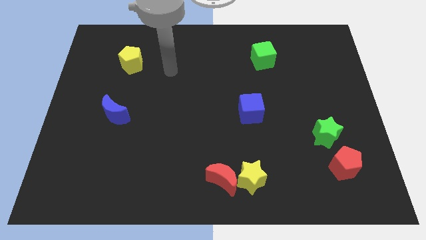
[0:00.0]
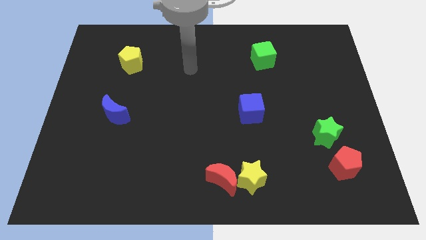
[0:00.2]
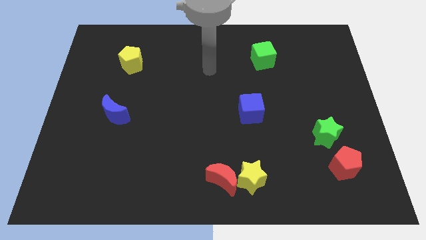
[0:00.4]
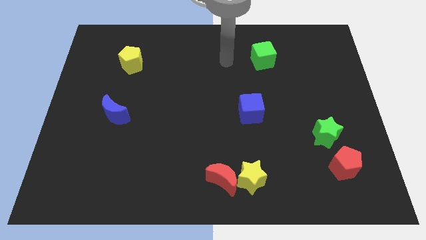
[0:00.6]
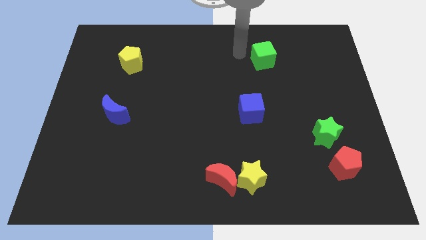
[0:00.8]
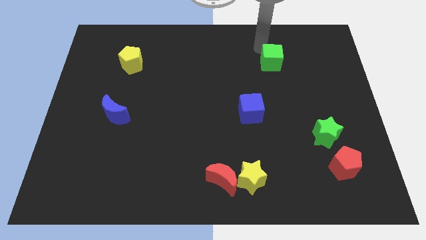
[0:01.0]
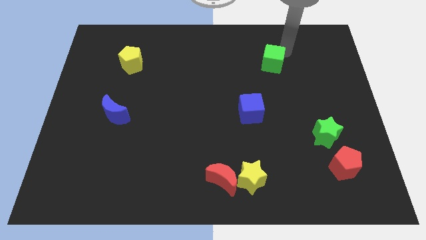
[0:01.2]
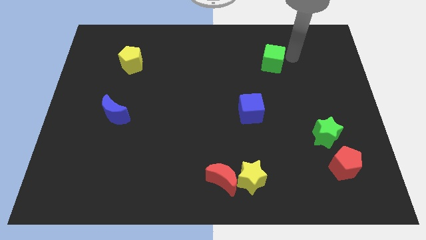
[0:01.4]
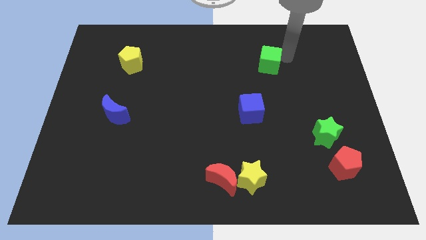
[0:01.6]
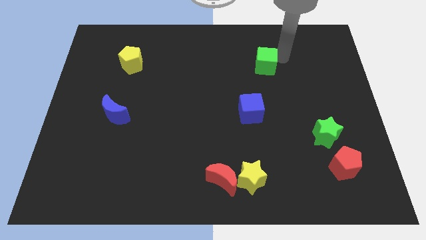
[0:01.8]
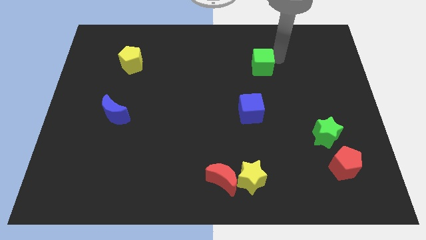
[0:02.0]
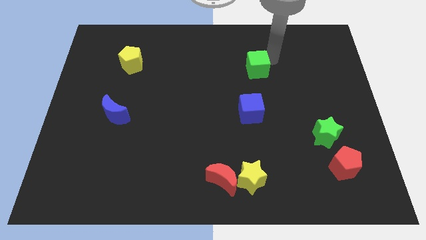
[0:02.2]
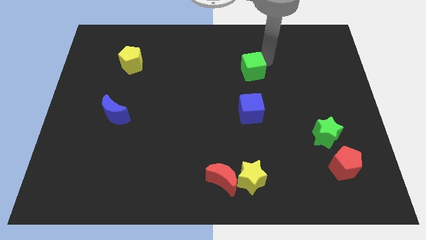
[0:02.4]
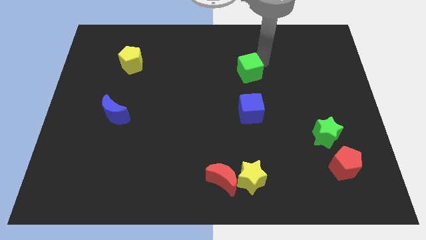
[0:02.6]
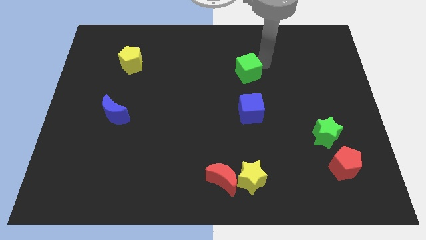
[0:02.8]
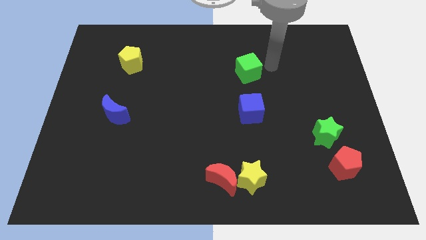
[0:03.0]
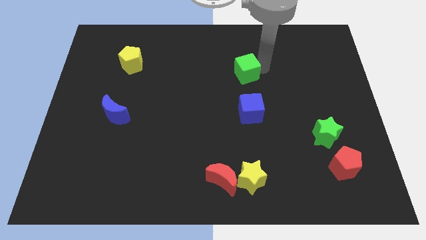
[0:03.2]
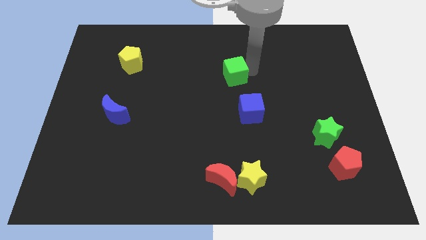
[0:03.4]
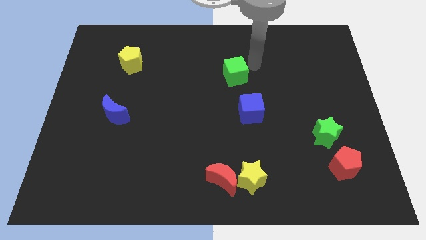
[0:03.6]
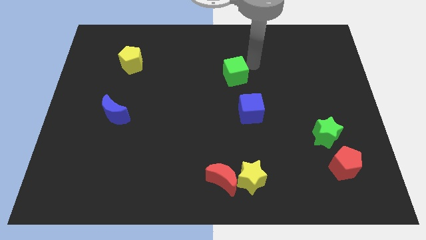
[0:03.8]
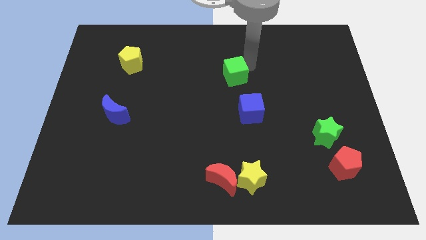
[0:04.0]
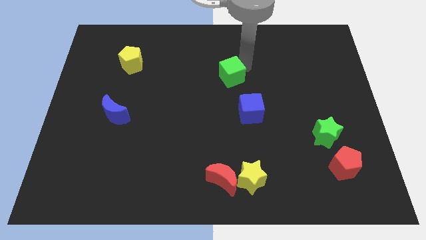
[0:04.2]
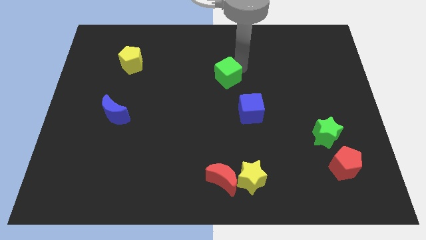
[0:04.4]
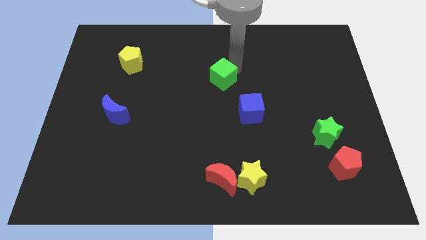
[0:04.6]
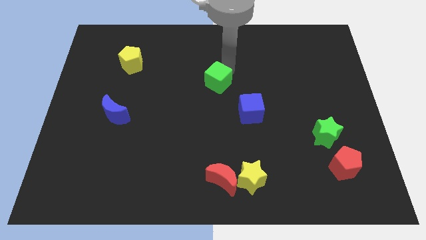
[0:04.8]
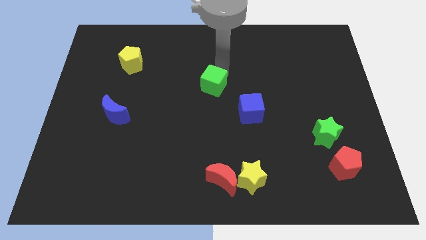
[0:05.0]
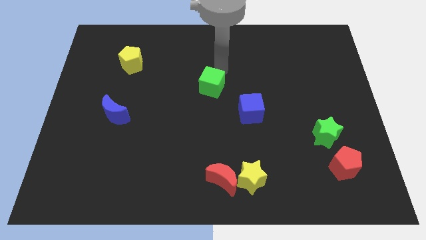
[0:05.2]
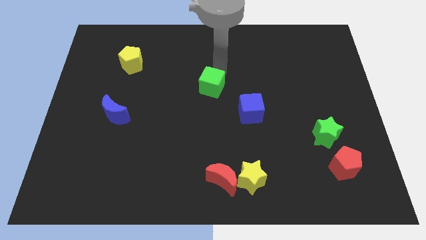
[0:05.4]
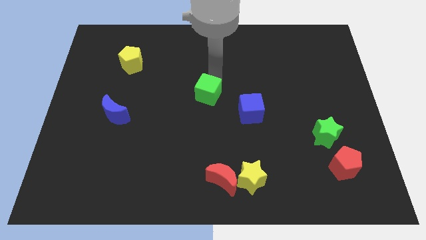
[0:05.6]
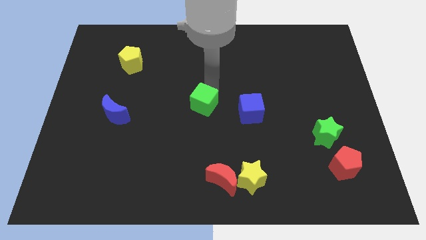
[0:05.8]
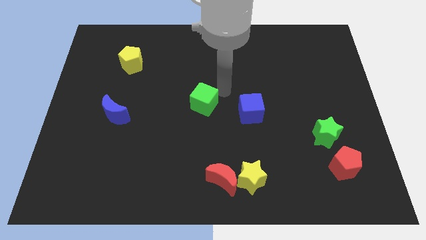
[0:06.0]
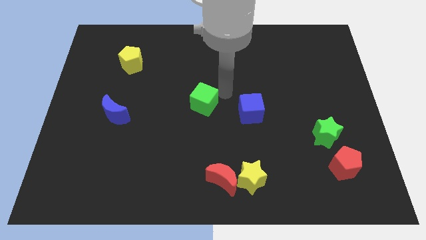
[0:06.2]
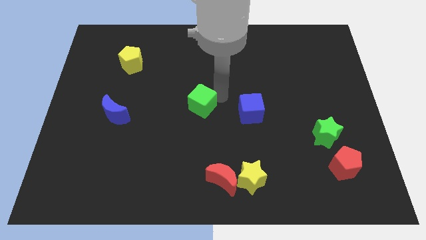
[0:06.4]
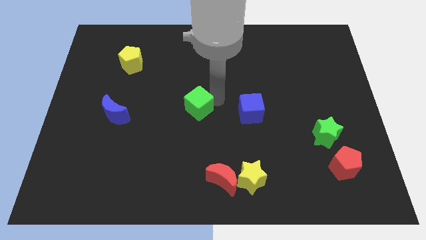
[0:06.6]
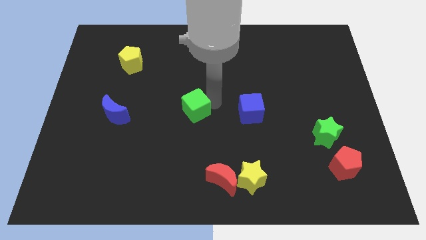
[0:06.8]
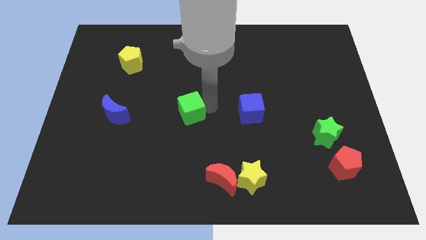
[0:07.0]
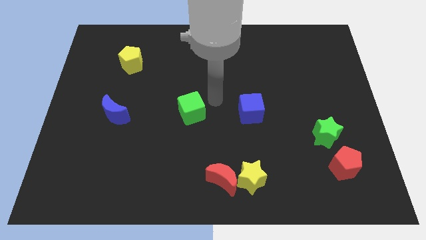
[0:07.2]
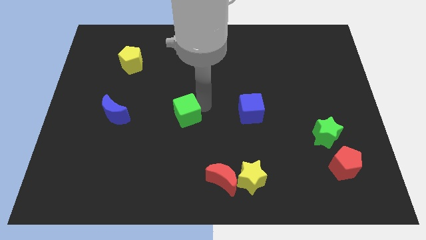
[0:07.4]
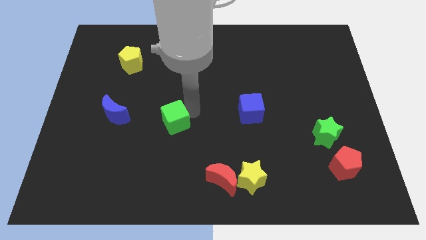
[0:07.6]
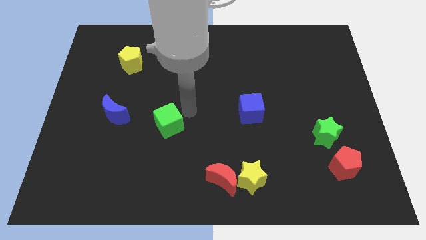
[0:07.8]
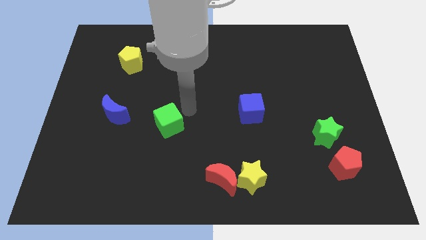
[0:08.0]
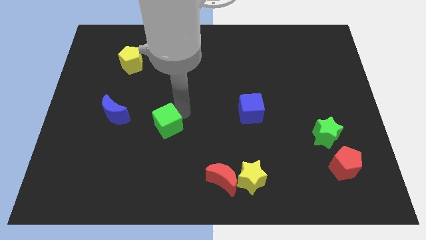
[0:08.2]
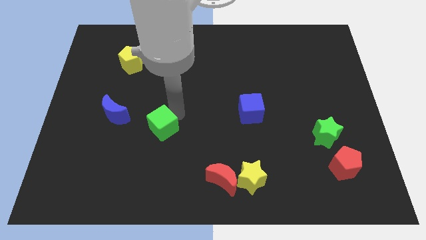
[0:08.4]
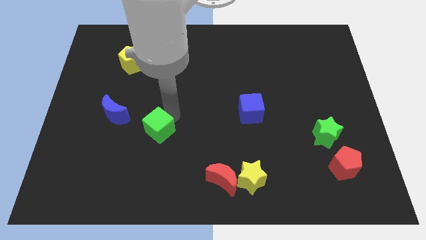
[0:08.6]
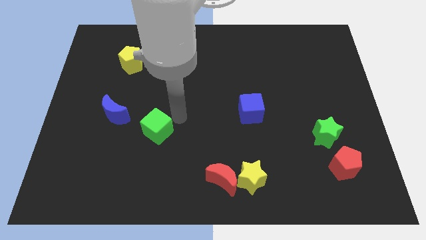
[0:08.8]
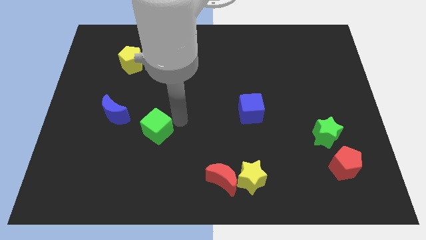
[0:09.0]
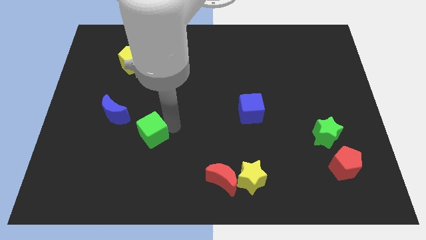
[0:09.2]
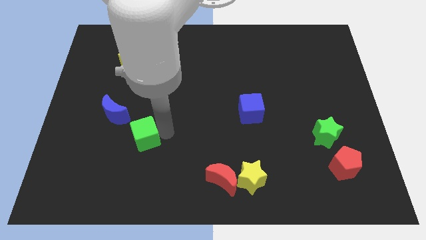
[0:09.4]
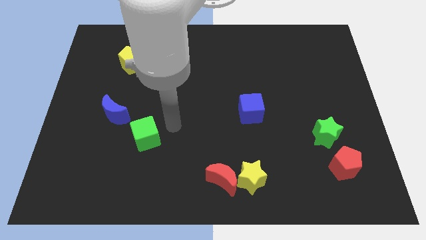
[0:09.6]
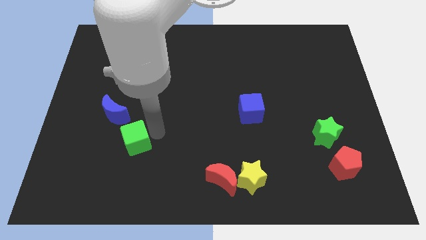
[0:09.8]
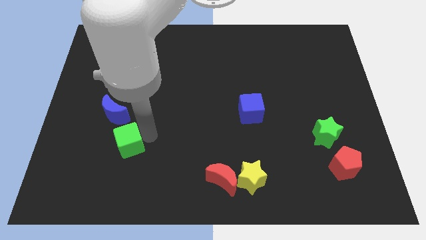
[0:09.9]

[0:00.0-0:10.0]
slide the green cube to the bottom of the blue moon

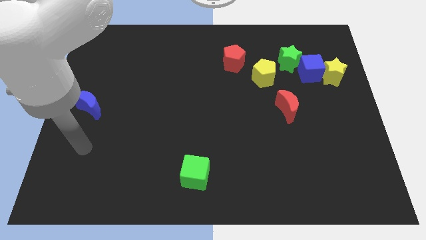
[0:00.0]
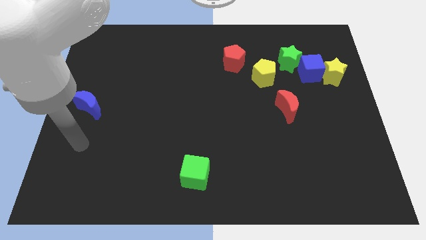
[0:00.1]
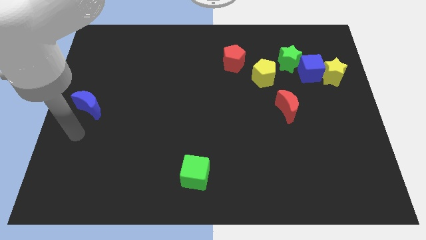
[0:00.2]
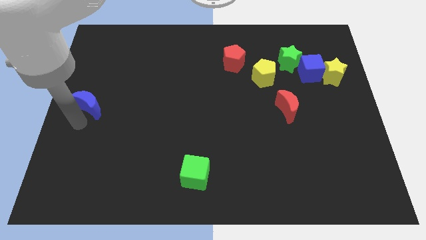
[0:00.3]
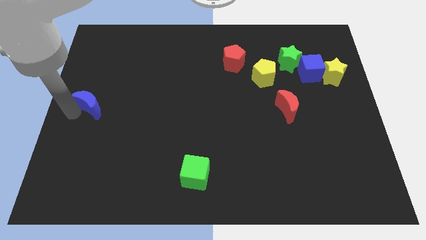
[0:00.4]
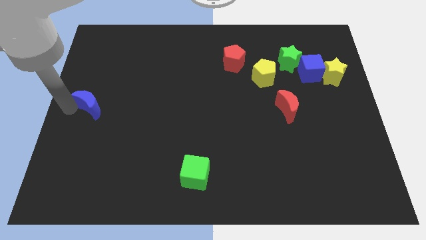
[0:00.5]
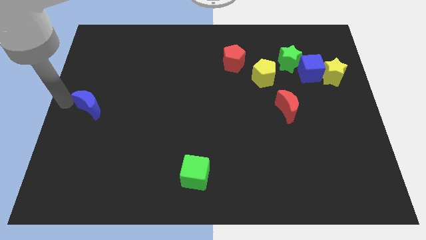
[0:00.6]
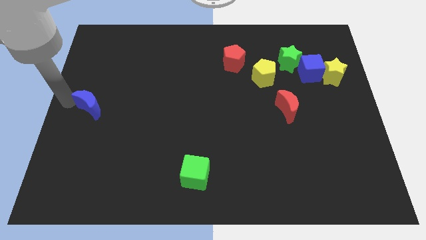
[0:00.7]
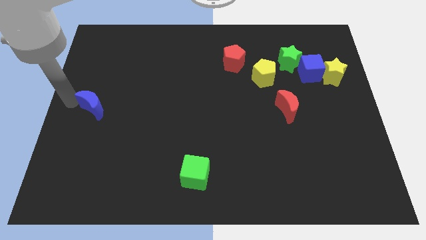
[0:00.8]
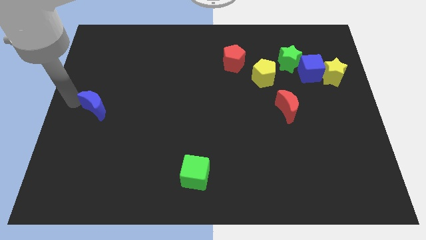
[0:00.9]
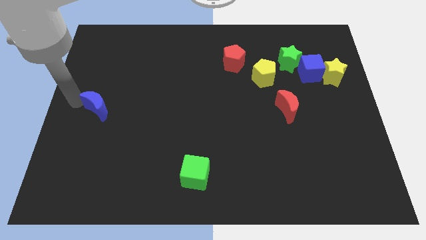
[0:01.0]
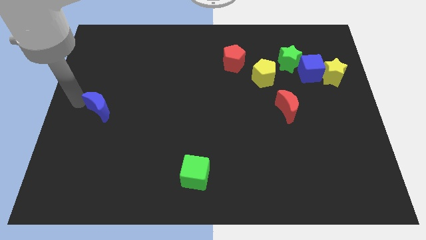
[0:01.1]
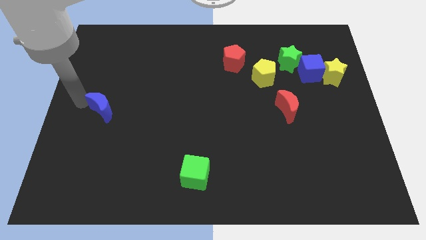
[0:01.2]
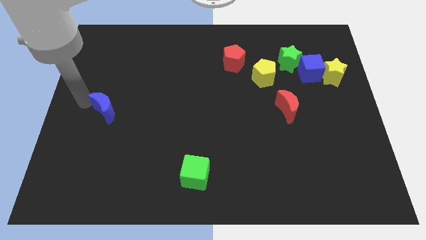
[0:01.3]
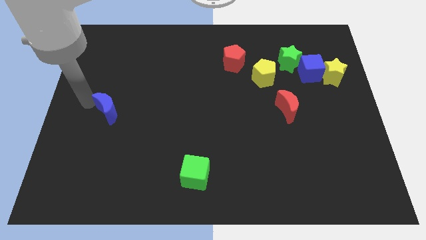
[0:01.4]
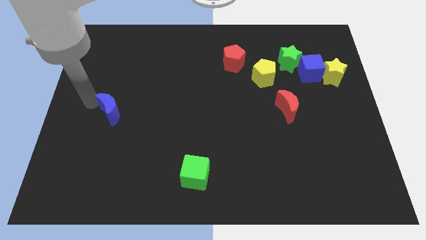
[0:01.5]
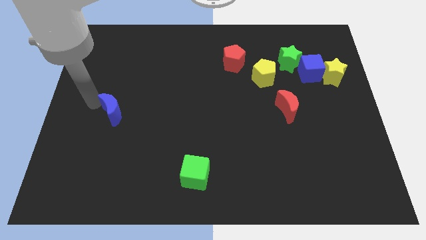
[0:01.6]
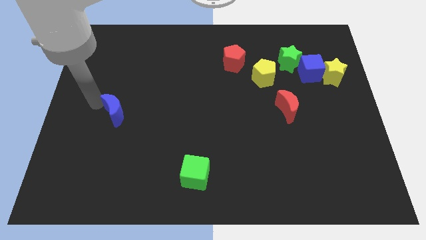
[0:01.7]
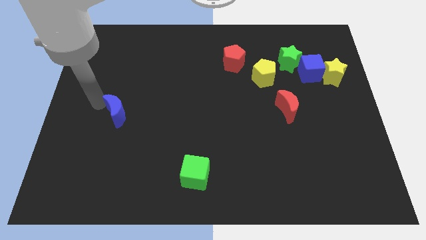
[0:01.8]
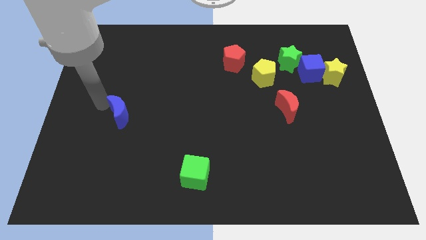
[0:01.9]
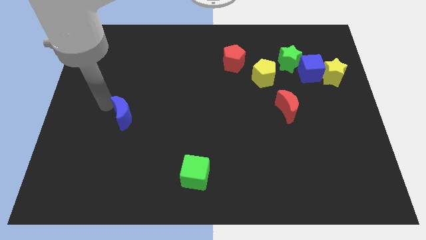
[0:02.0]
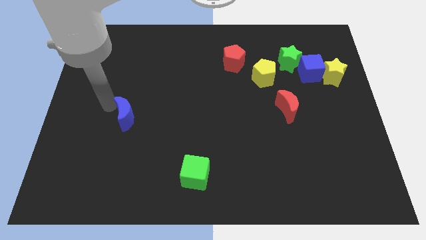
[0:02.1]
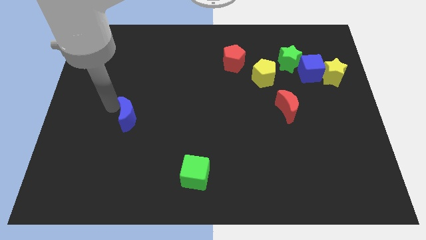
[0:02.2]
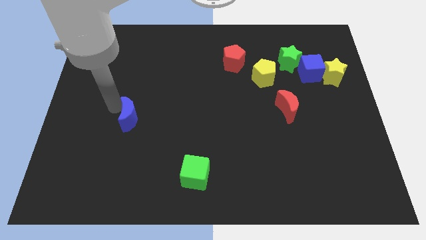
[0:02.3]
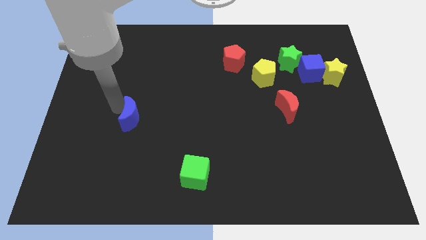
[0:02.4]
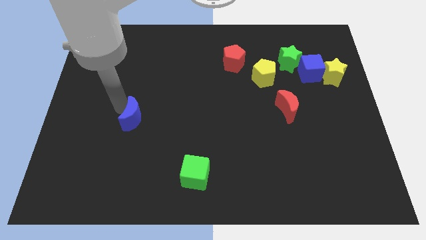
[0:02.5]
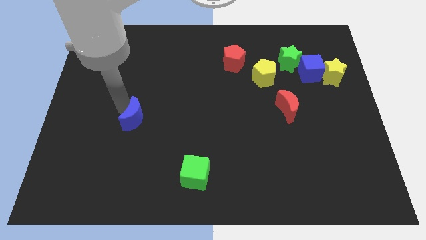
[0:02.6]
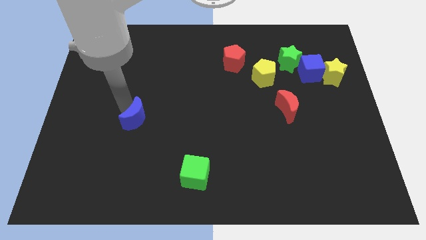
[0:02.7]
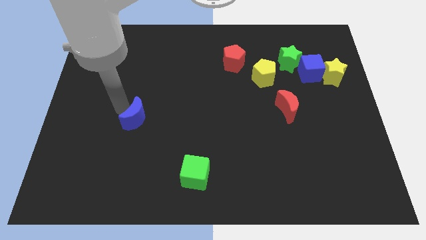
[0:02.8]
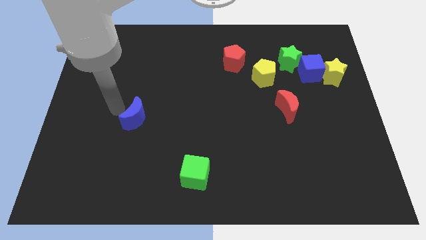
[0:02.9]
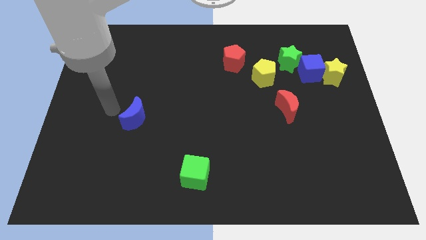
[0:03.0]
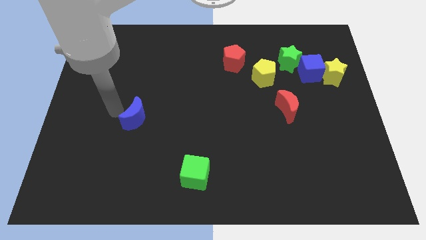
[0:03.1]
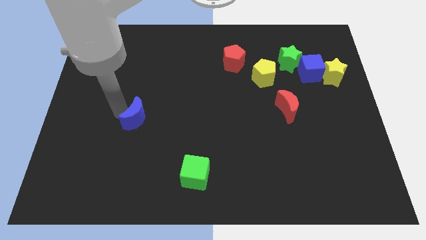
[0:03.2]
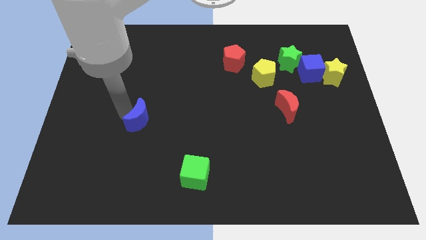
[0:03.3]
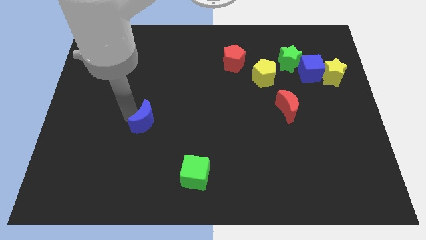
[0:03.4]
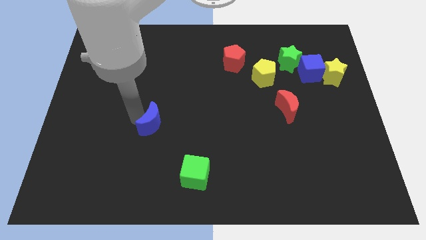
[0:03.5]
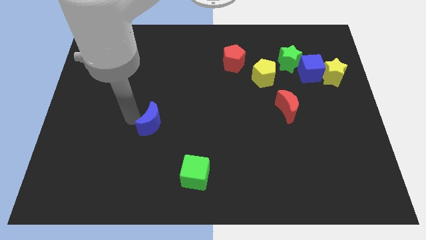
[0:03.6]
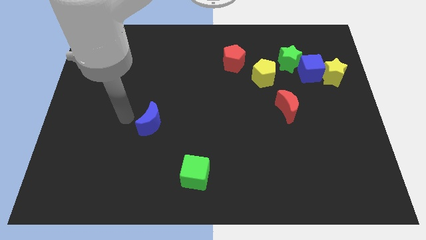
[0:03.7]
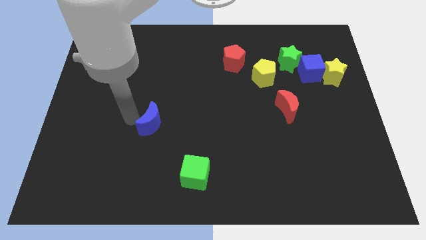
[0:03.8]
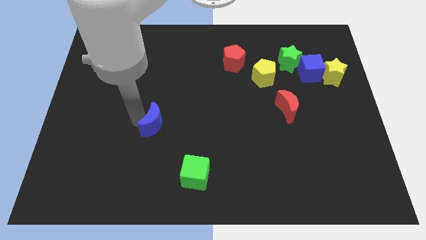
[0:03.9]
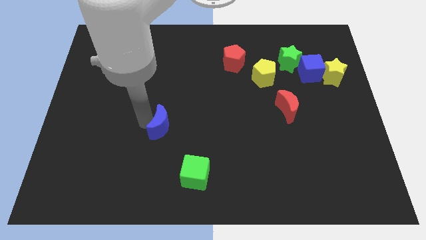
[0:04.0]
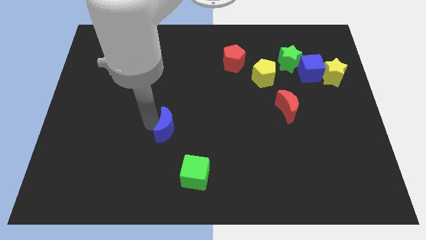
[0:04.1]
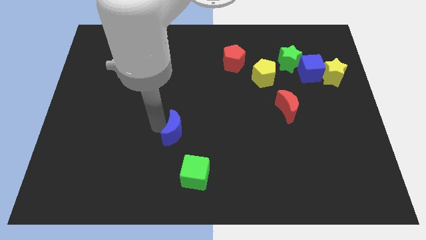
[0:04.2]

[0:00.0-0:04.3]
put the blue moon to the top of the green cube
